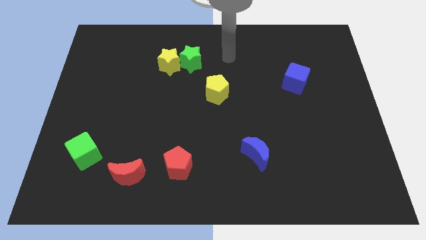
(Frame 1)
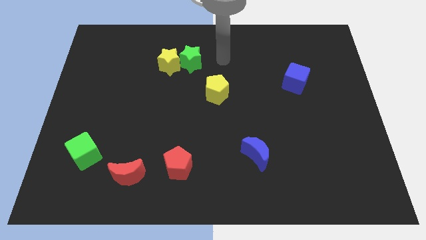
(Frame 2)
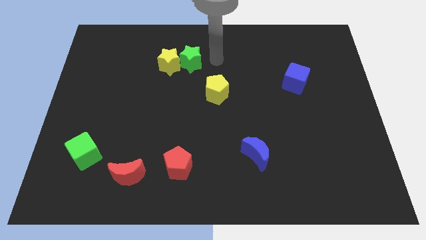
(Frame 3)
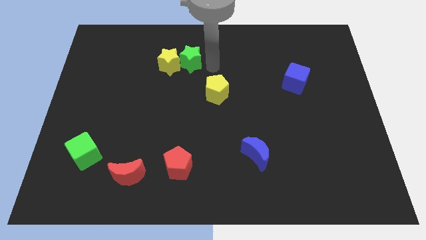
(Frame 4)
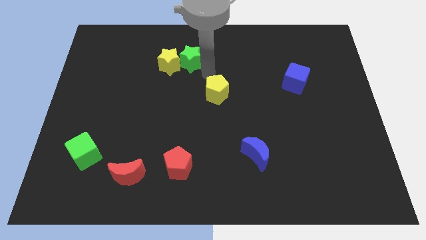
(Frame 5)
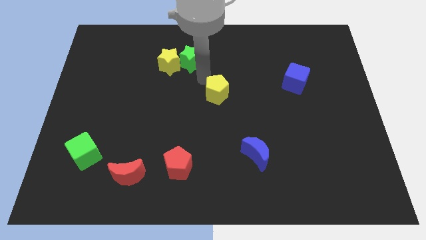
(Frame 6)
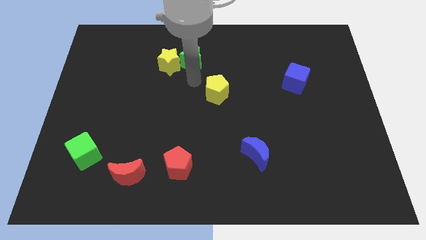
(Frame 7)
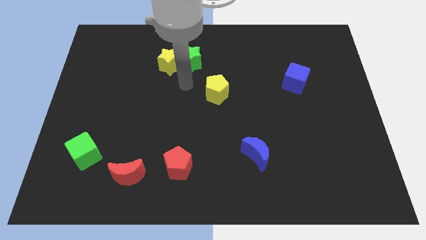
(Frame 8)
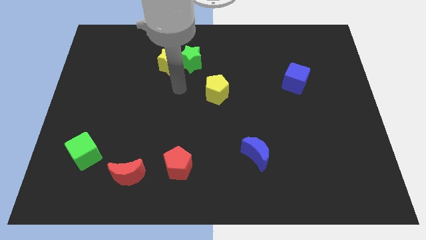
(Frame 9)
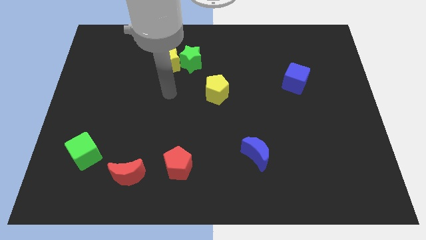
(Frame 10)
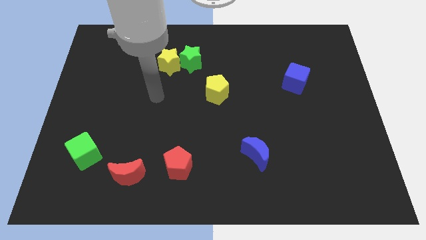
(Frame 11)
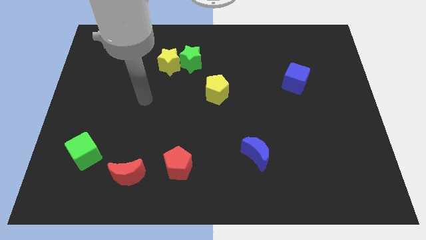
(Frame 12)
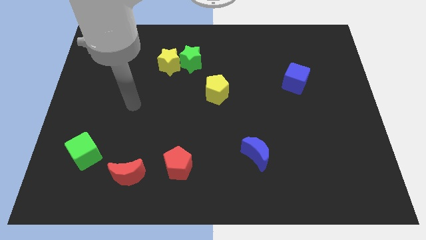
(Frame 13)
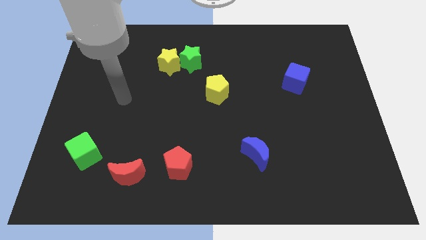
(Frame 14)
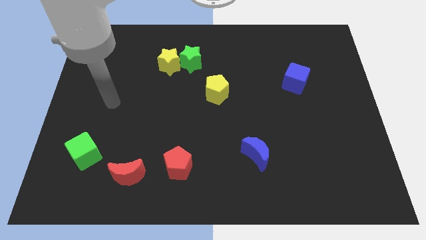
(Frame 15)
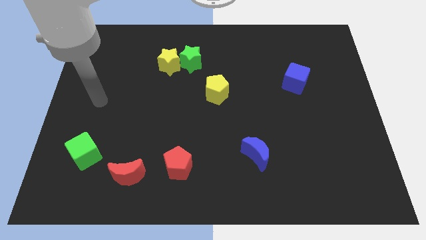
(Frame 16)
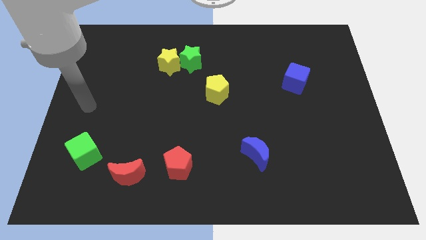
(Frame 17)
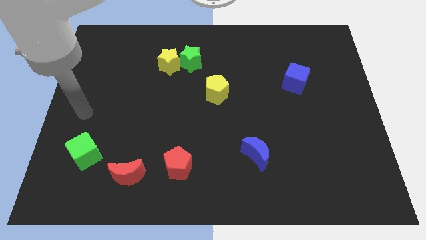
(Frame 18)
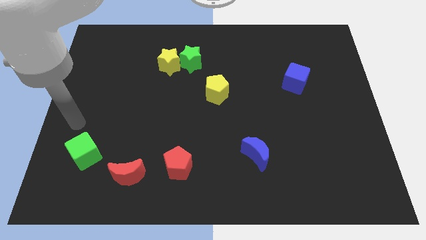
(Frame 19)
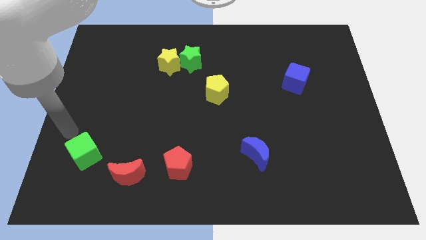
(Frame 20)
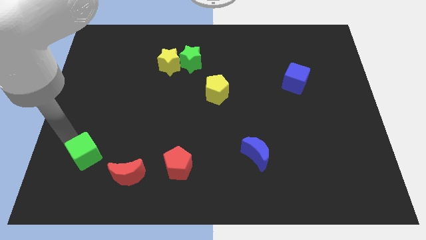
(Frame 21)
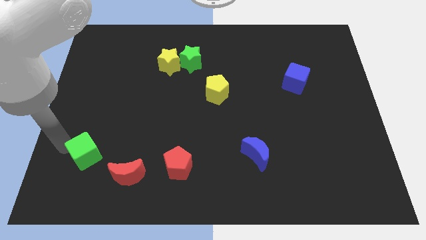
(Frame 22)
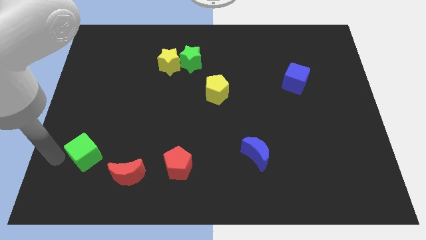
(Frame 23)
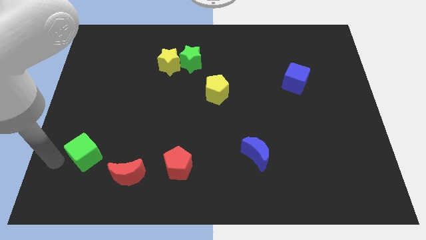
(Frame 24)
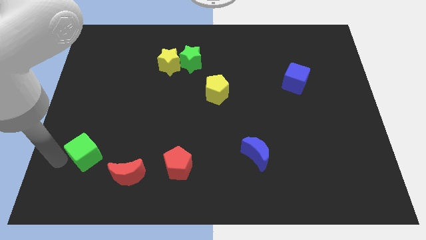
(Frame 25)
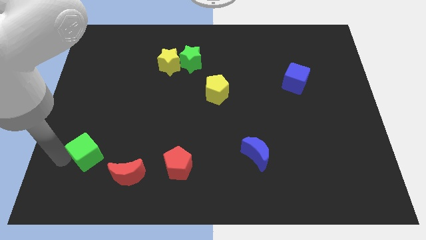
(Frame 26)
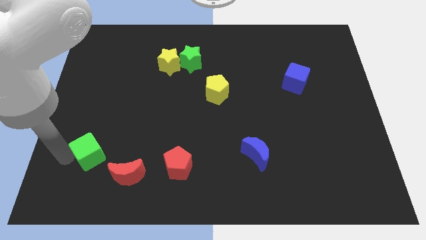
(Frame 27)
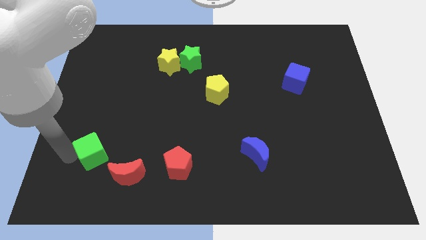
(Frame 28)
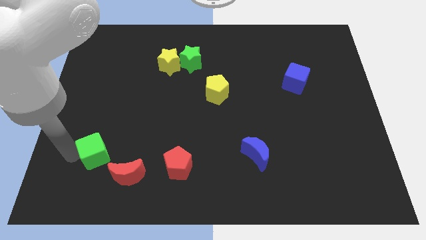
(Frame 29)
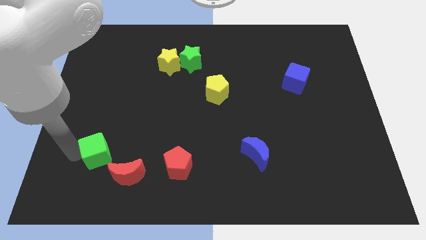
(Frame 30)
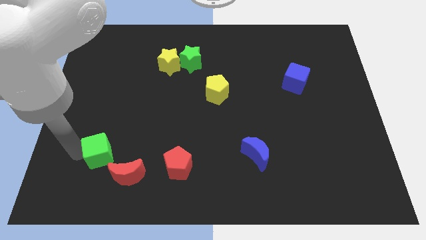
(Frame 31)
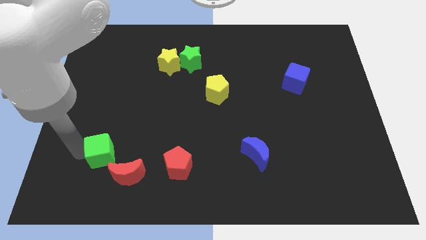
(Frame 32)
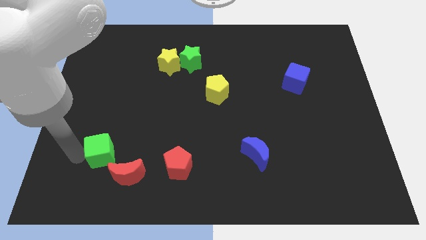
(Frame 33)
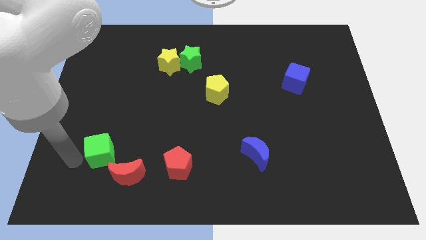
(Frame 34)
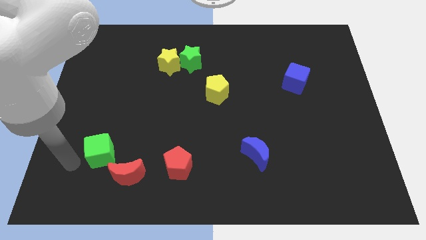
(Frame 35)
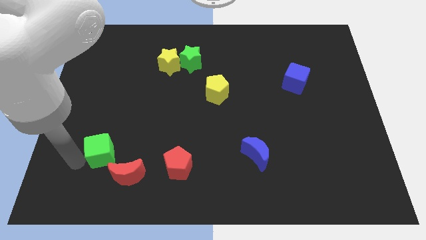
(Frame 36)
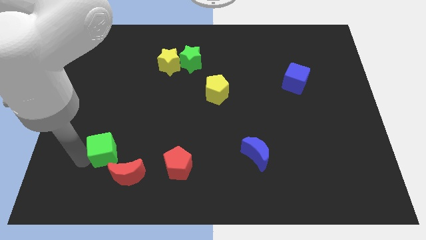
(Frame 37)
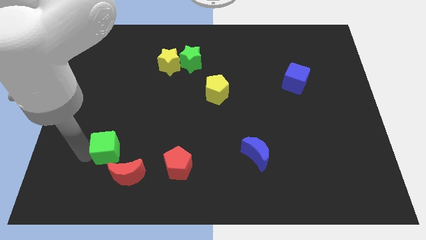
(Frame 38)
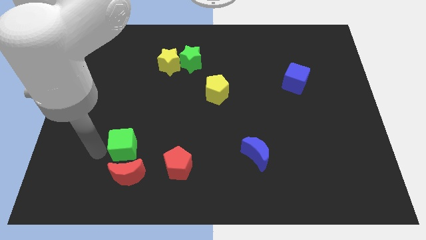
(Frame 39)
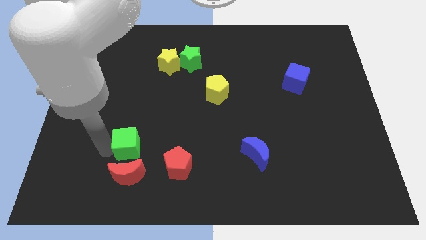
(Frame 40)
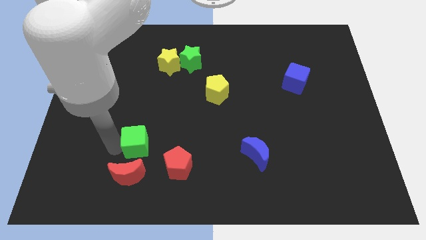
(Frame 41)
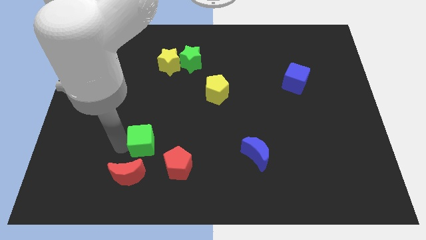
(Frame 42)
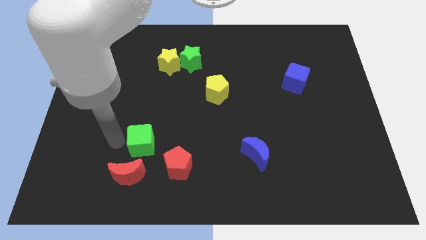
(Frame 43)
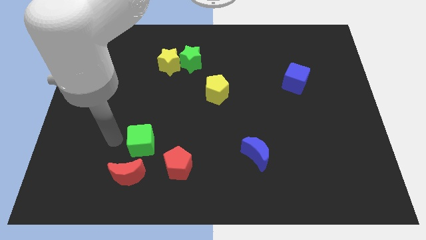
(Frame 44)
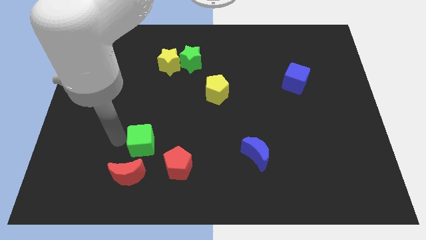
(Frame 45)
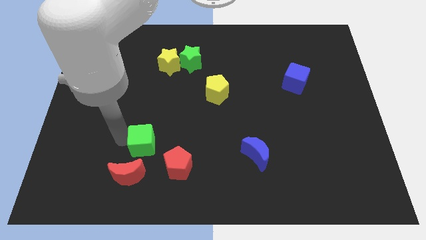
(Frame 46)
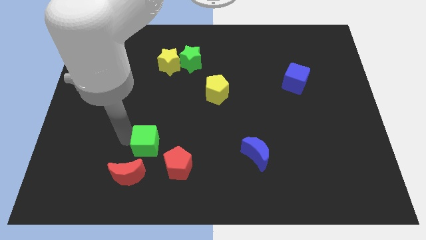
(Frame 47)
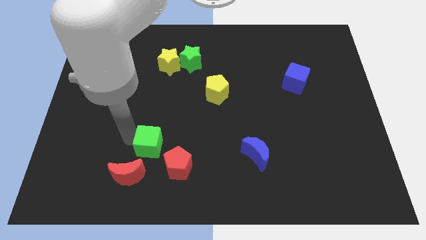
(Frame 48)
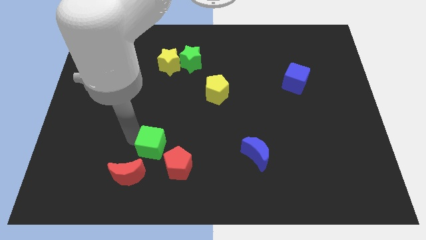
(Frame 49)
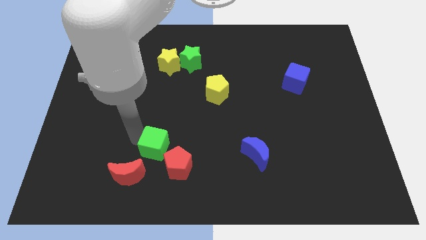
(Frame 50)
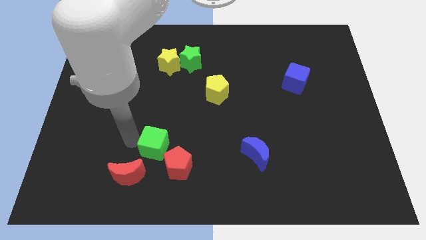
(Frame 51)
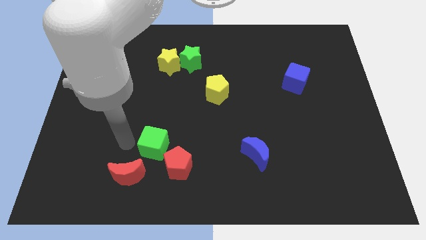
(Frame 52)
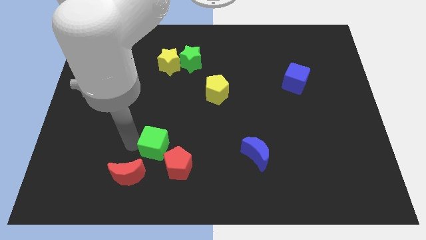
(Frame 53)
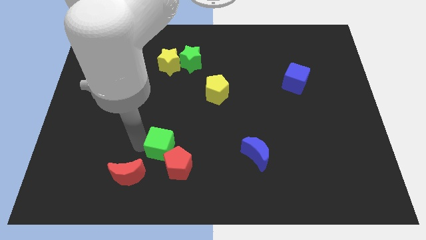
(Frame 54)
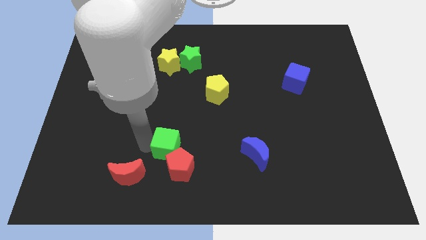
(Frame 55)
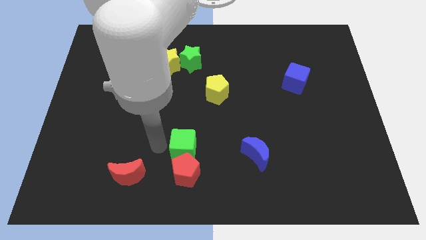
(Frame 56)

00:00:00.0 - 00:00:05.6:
slide the green cube right

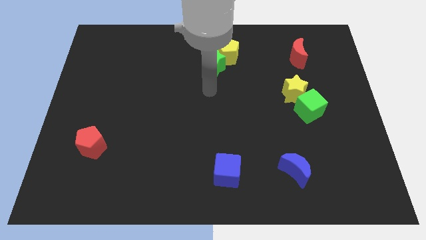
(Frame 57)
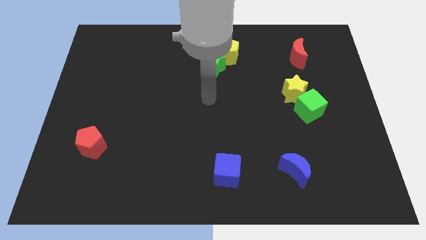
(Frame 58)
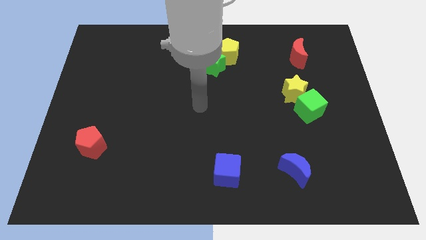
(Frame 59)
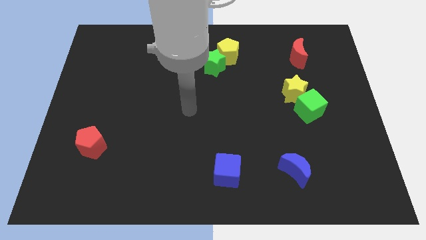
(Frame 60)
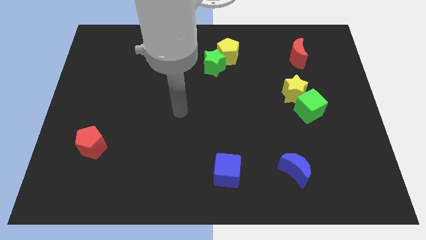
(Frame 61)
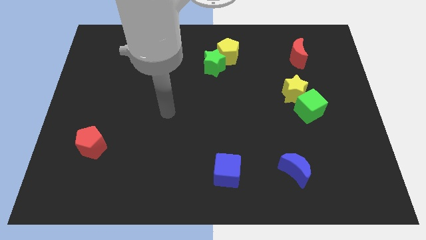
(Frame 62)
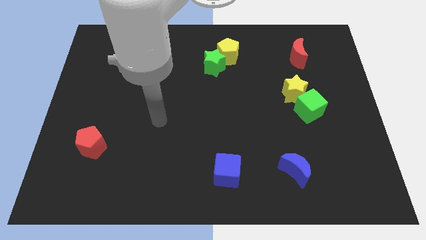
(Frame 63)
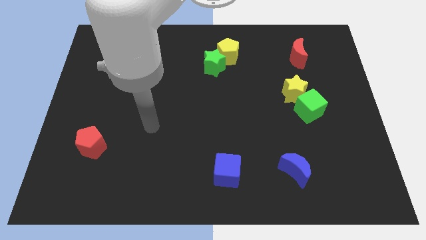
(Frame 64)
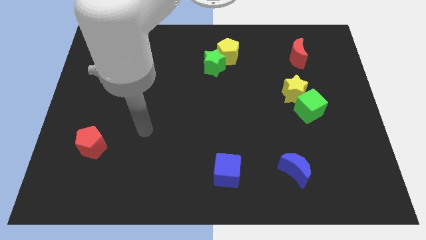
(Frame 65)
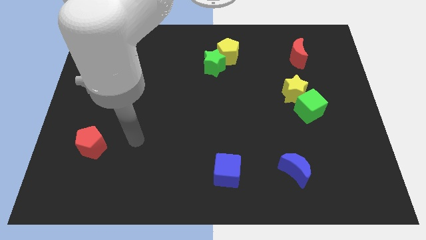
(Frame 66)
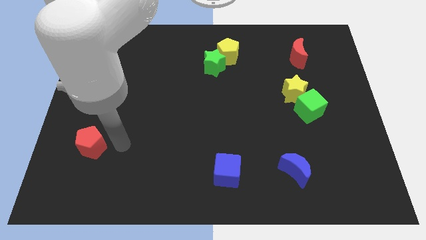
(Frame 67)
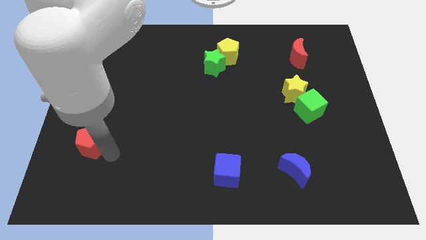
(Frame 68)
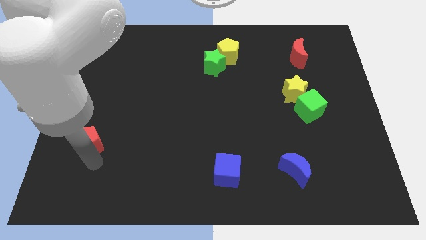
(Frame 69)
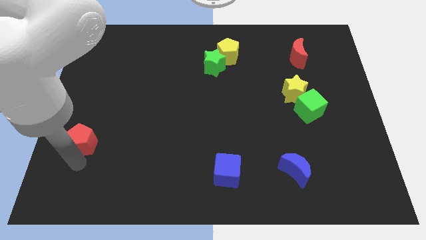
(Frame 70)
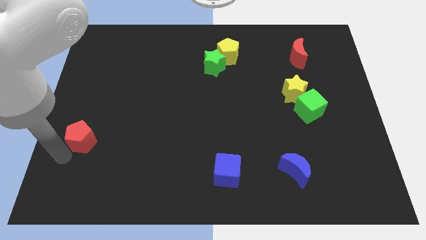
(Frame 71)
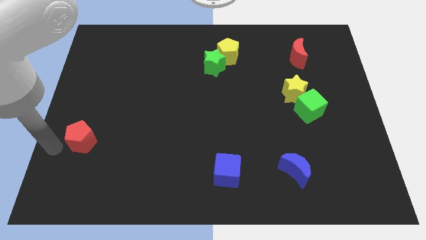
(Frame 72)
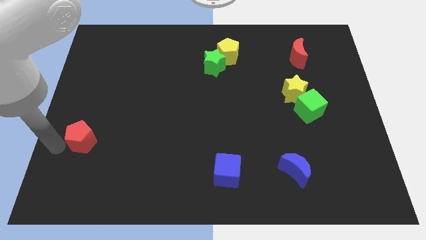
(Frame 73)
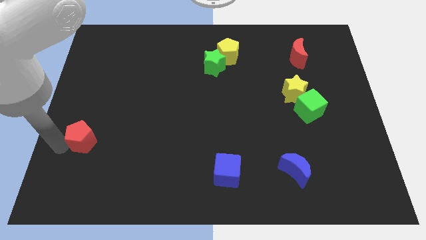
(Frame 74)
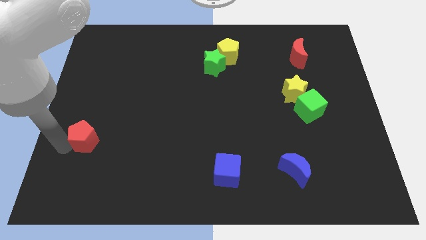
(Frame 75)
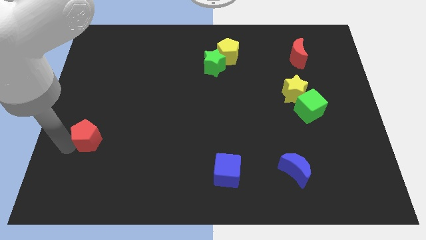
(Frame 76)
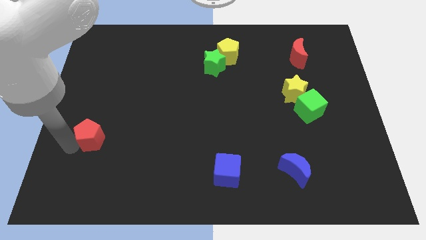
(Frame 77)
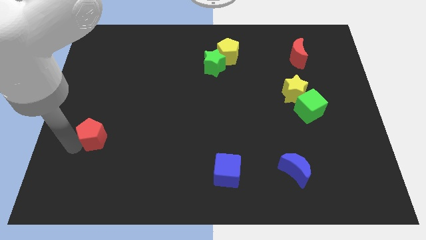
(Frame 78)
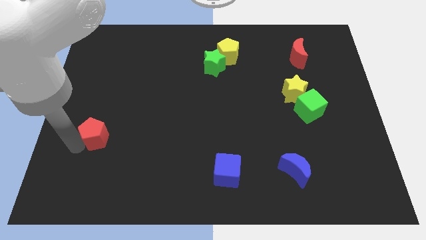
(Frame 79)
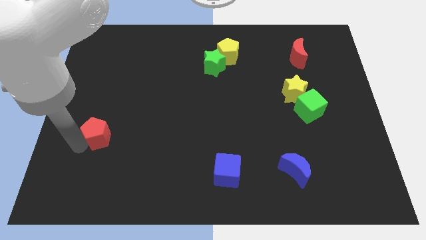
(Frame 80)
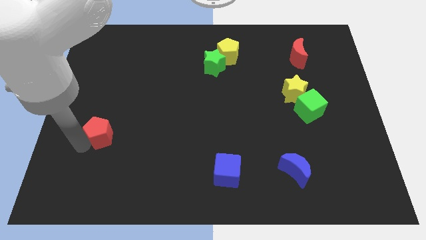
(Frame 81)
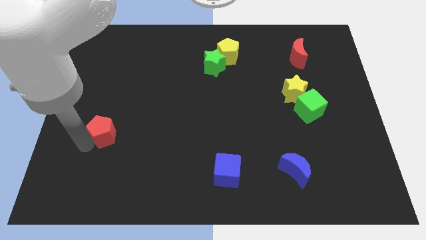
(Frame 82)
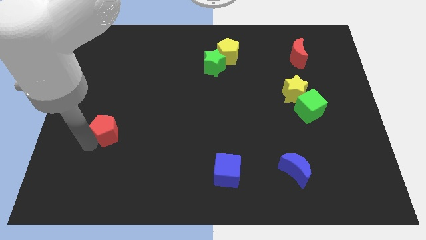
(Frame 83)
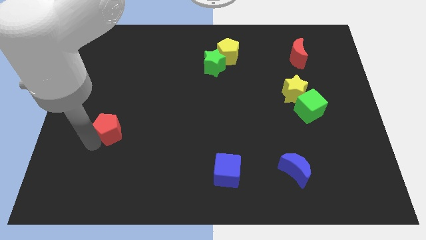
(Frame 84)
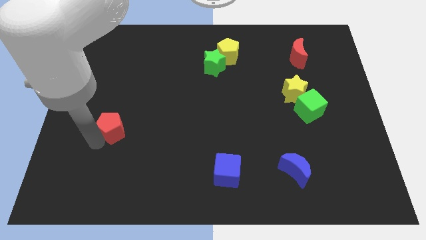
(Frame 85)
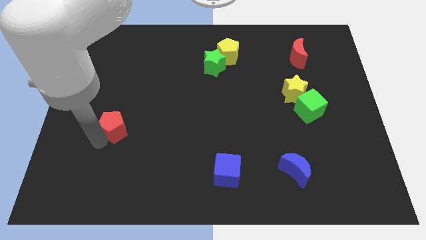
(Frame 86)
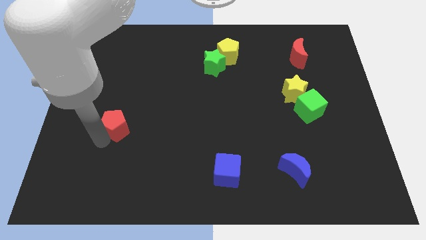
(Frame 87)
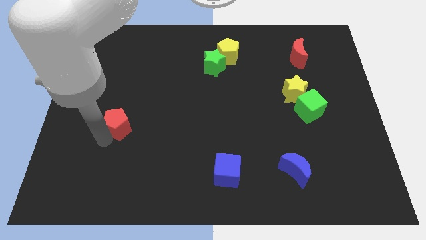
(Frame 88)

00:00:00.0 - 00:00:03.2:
slide the red pentagon diagonally upwards and right a bit
